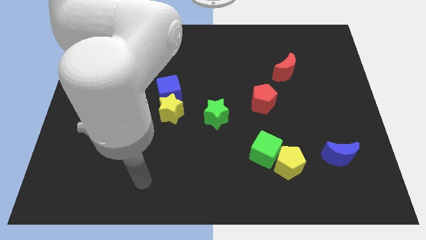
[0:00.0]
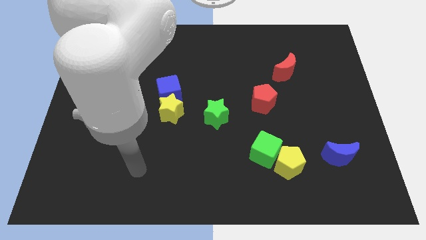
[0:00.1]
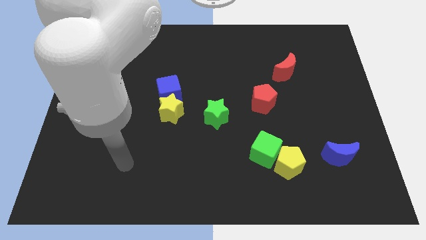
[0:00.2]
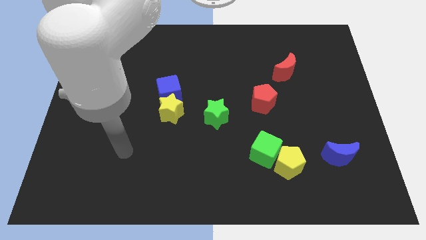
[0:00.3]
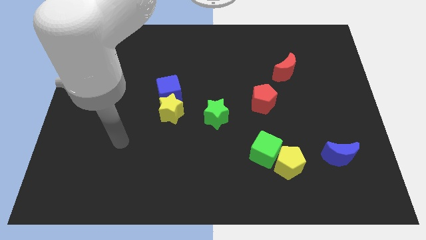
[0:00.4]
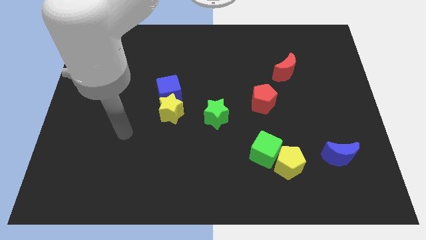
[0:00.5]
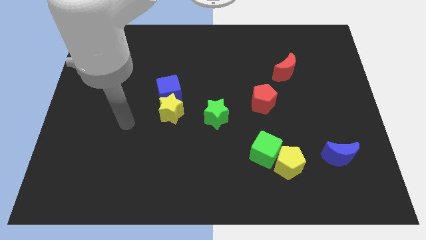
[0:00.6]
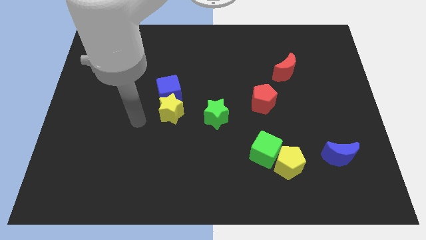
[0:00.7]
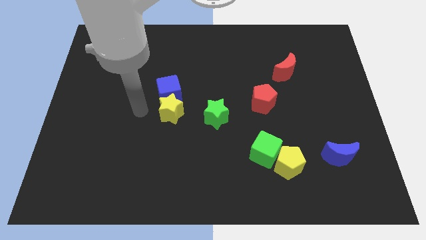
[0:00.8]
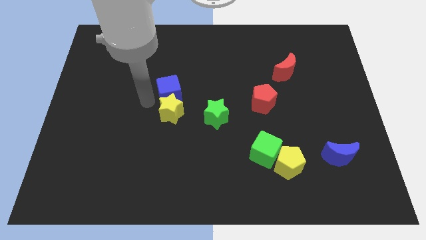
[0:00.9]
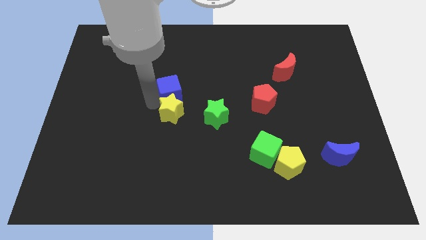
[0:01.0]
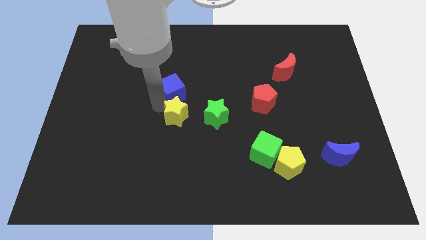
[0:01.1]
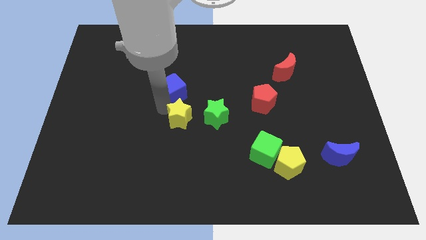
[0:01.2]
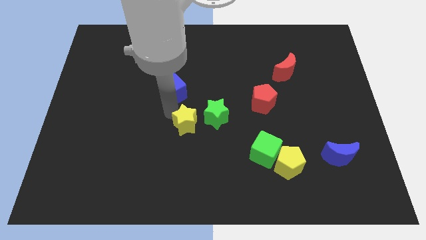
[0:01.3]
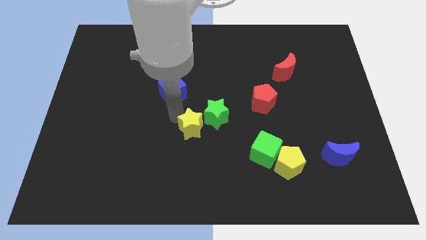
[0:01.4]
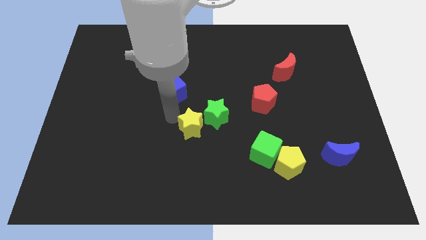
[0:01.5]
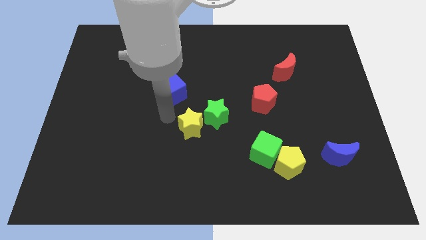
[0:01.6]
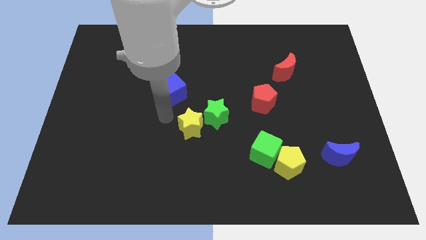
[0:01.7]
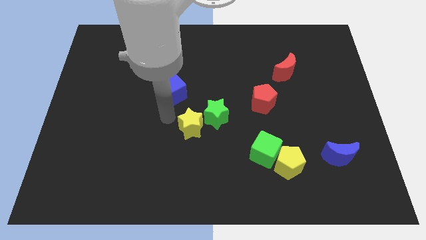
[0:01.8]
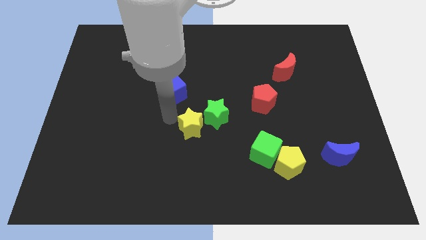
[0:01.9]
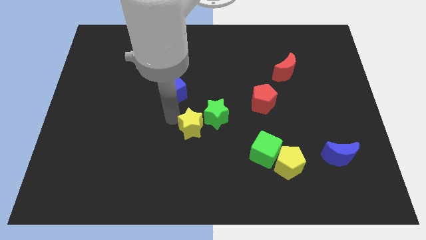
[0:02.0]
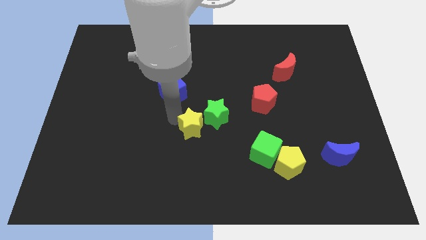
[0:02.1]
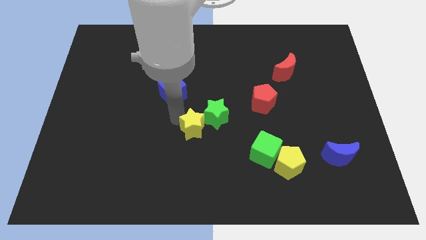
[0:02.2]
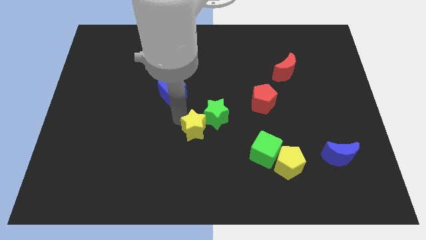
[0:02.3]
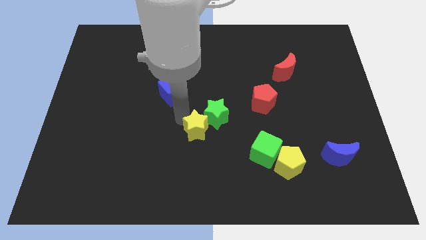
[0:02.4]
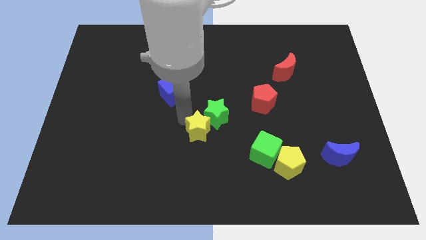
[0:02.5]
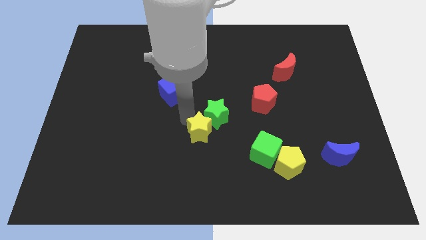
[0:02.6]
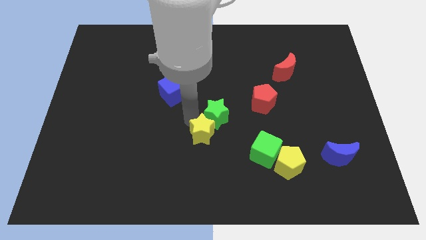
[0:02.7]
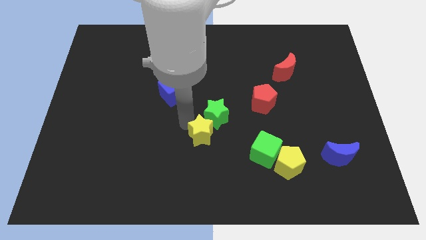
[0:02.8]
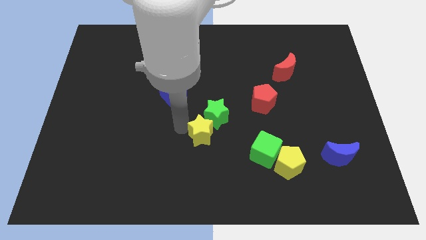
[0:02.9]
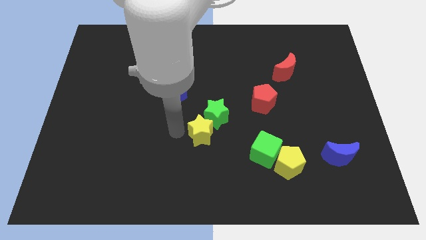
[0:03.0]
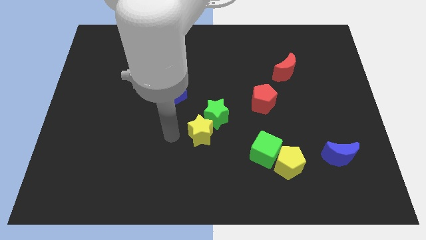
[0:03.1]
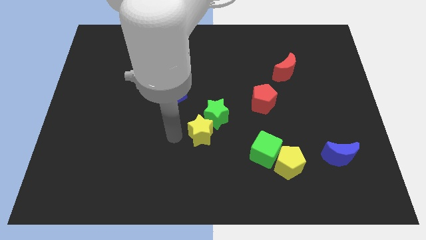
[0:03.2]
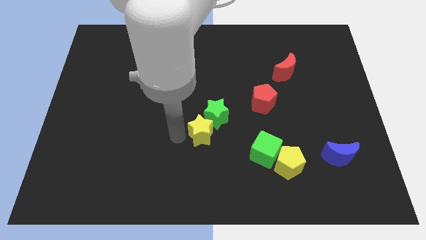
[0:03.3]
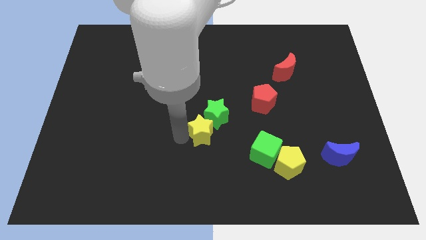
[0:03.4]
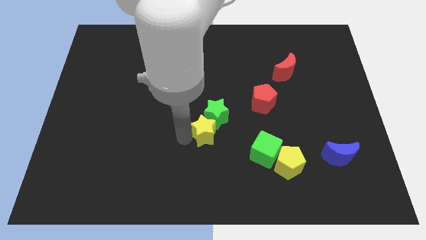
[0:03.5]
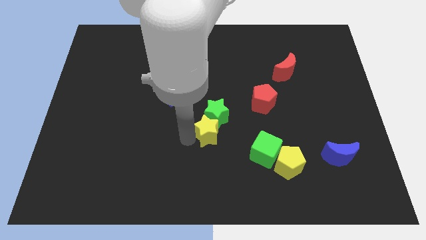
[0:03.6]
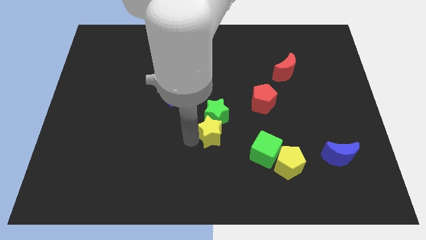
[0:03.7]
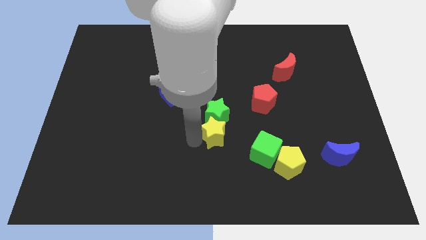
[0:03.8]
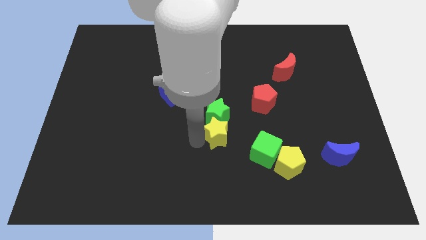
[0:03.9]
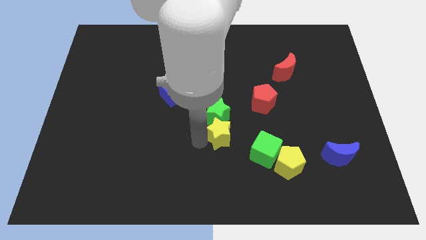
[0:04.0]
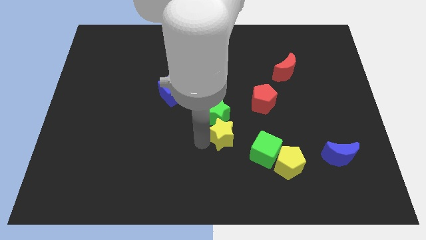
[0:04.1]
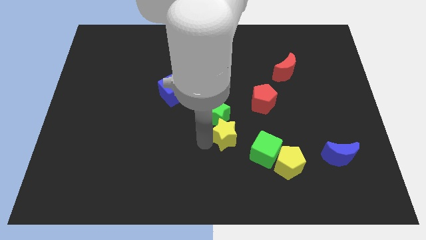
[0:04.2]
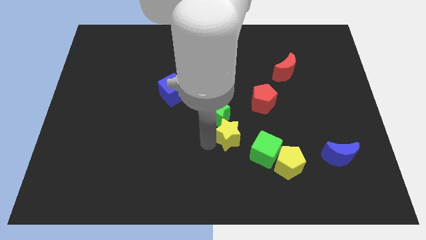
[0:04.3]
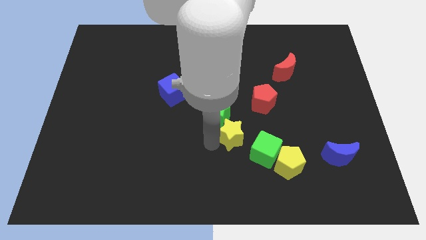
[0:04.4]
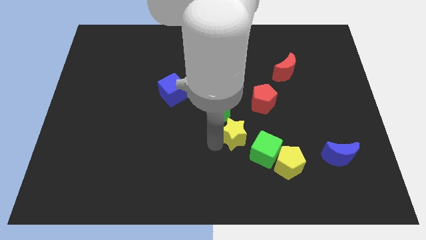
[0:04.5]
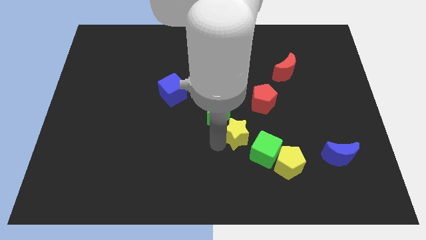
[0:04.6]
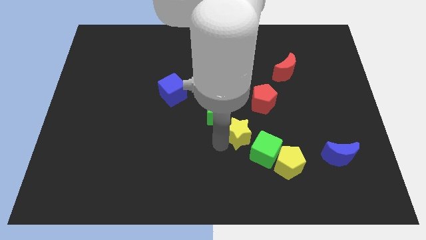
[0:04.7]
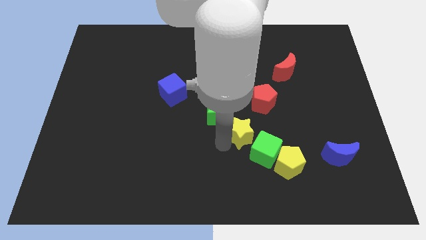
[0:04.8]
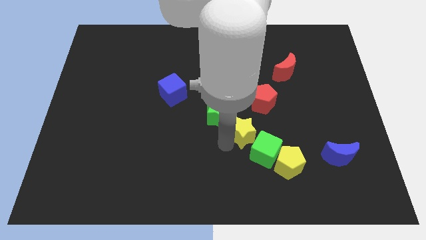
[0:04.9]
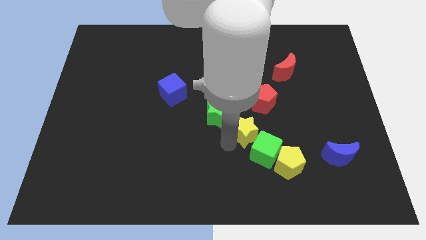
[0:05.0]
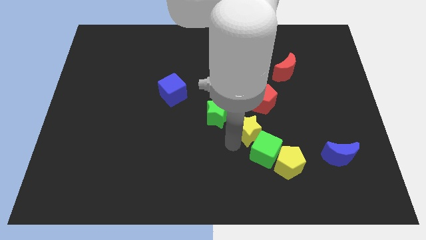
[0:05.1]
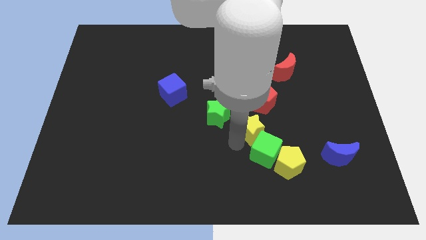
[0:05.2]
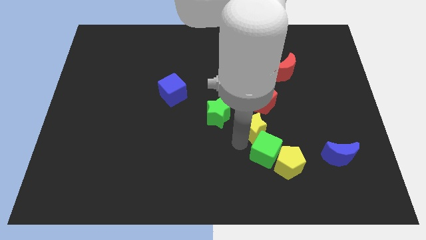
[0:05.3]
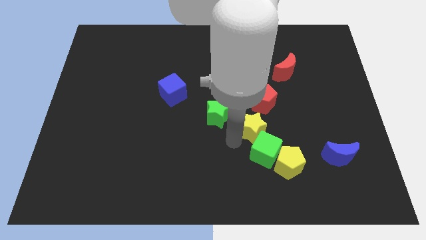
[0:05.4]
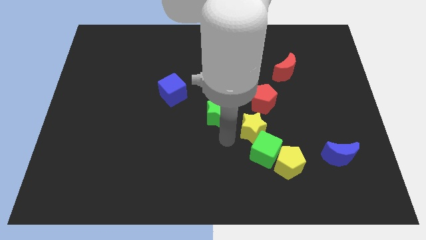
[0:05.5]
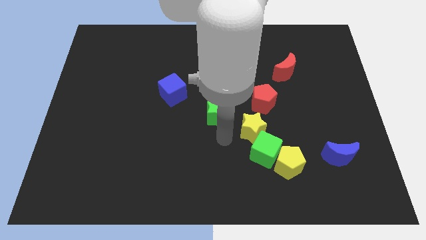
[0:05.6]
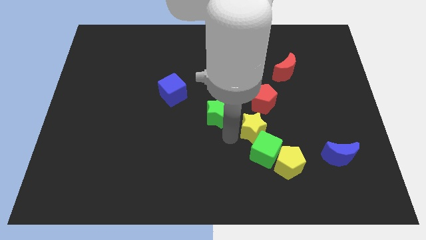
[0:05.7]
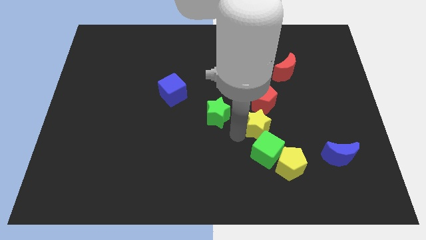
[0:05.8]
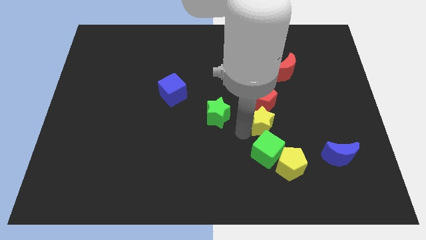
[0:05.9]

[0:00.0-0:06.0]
slide the yellow star to the right

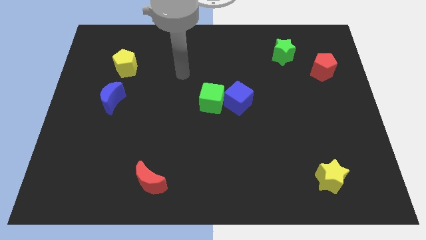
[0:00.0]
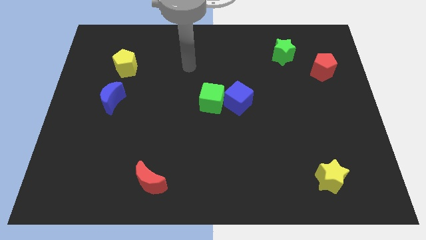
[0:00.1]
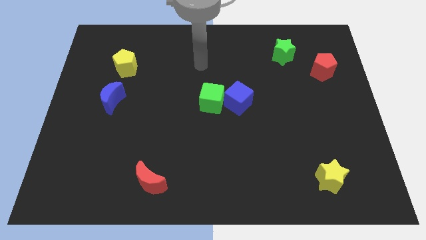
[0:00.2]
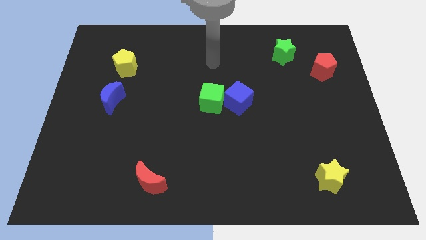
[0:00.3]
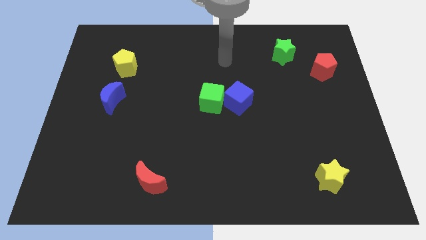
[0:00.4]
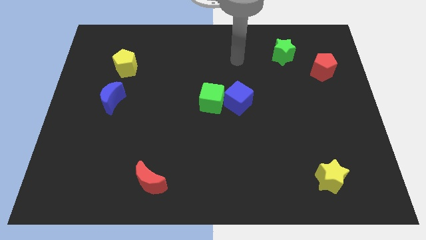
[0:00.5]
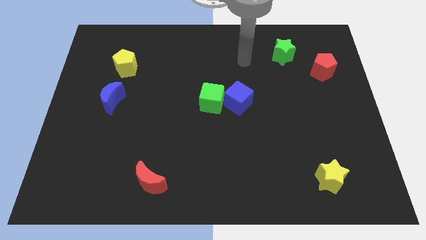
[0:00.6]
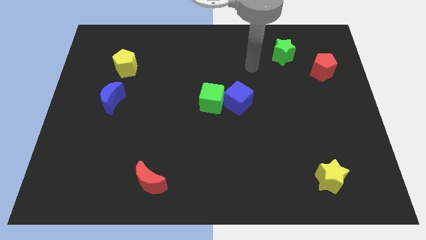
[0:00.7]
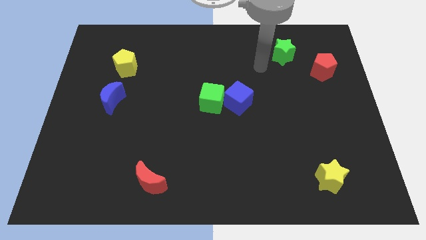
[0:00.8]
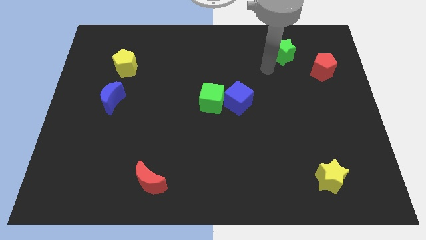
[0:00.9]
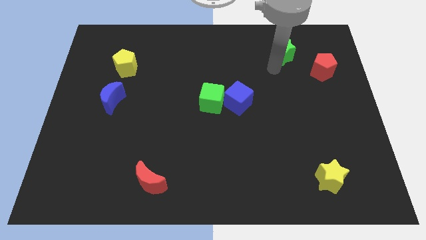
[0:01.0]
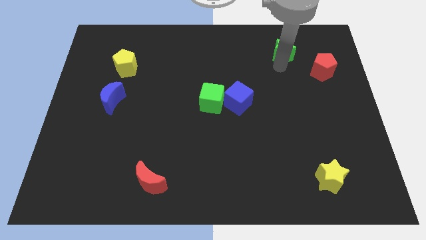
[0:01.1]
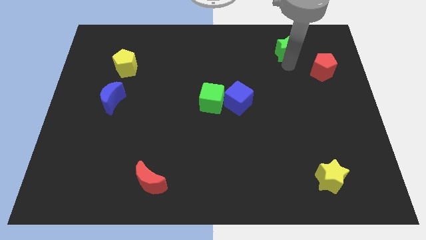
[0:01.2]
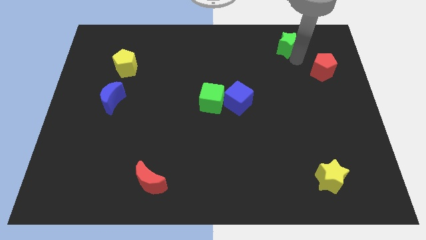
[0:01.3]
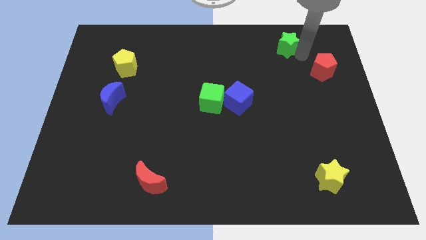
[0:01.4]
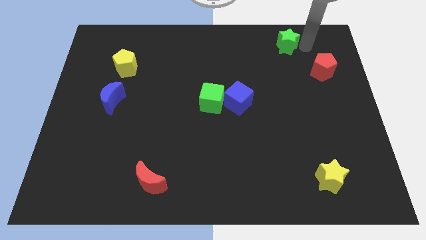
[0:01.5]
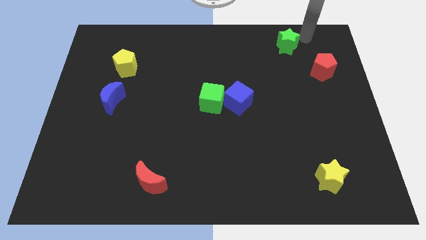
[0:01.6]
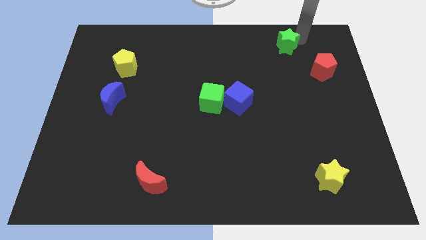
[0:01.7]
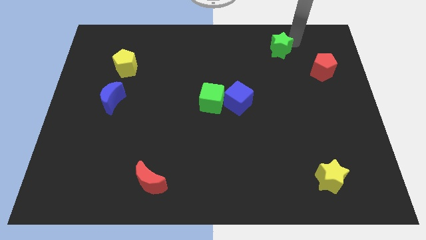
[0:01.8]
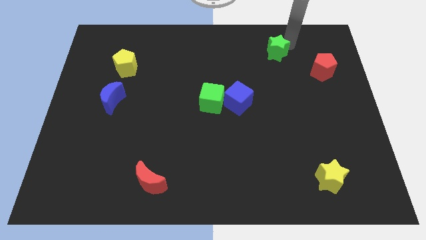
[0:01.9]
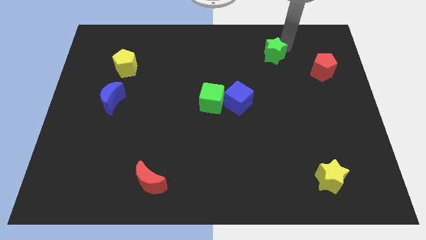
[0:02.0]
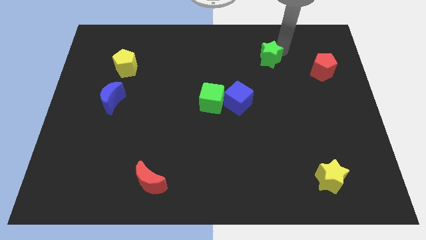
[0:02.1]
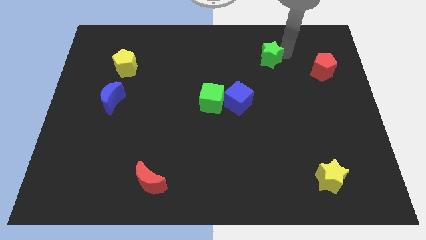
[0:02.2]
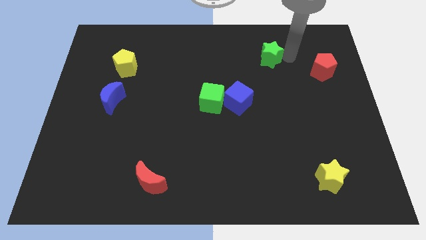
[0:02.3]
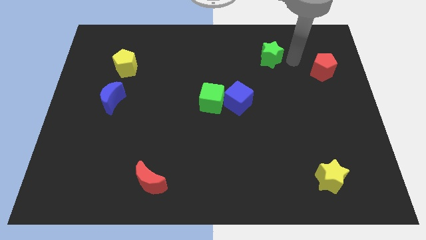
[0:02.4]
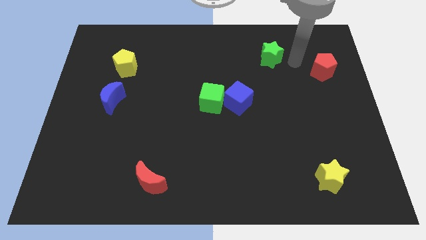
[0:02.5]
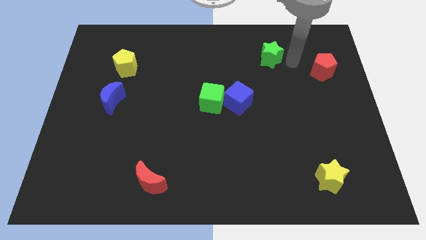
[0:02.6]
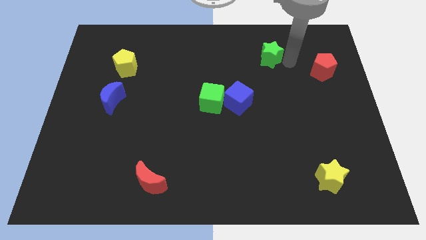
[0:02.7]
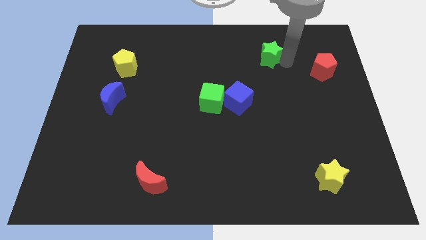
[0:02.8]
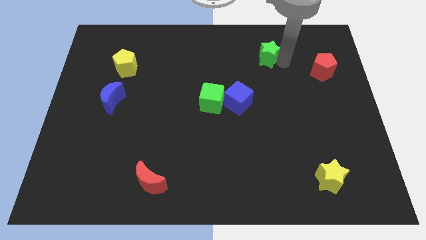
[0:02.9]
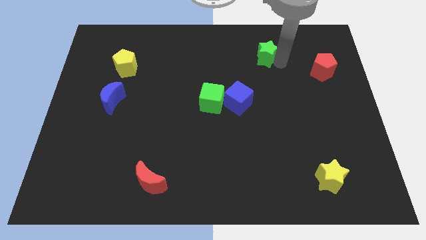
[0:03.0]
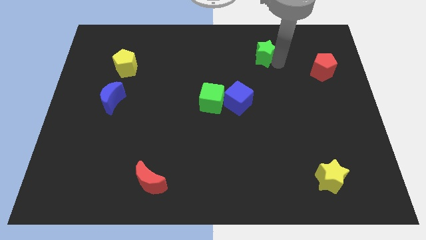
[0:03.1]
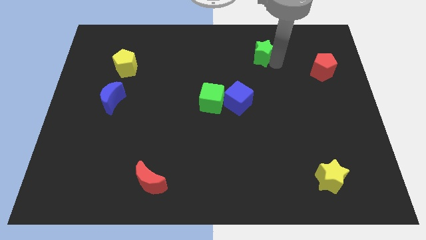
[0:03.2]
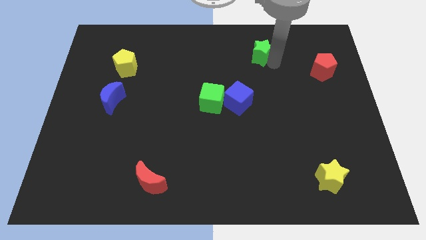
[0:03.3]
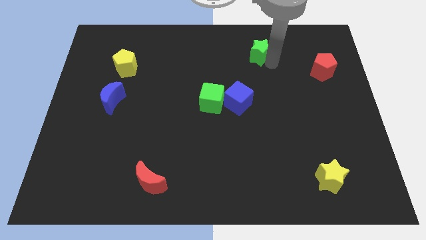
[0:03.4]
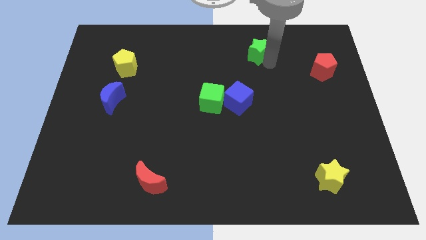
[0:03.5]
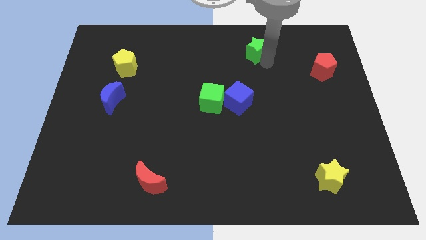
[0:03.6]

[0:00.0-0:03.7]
slightly slide the green star to the left
